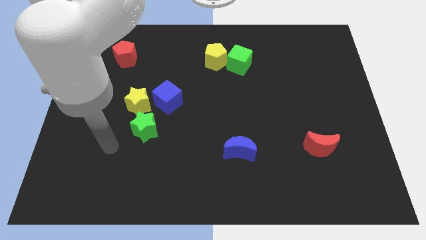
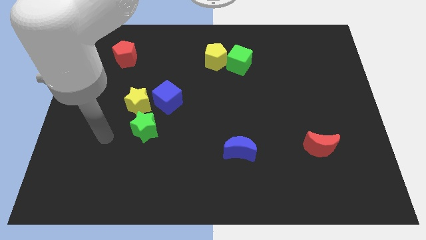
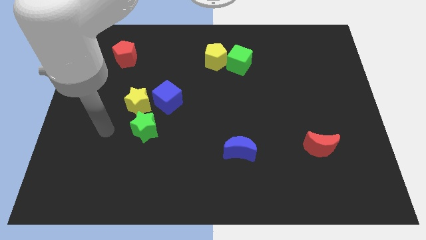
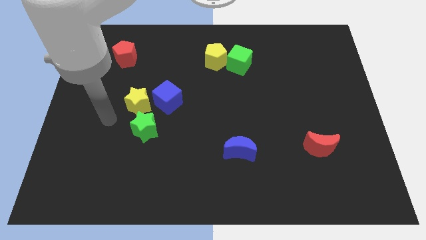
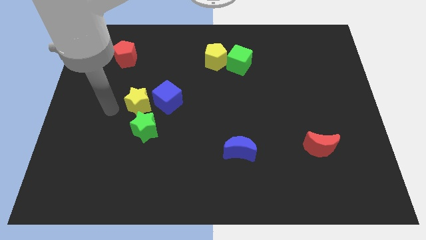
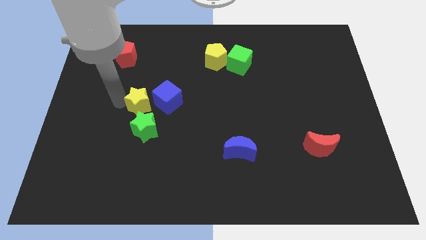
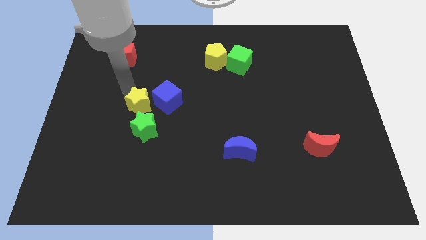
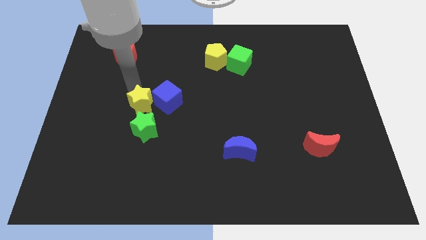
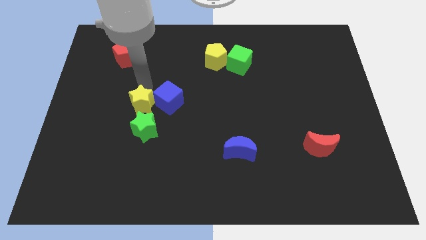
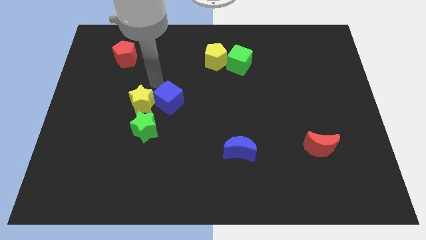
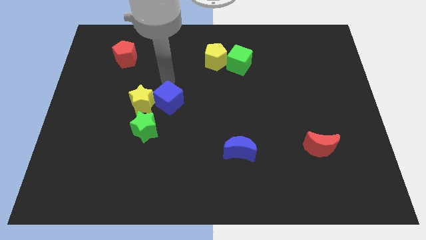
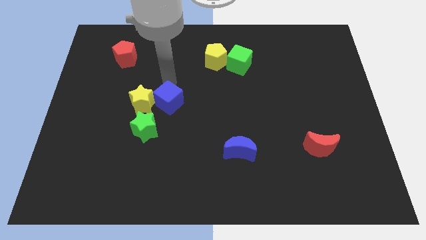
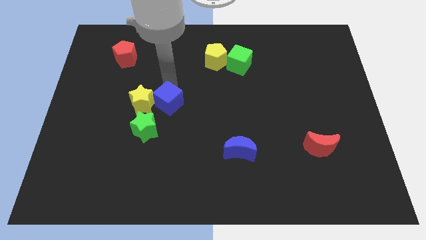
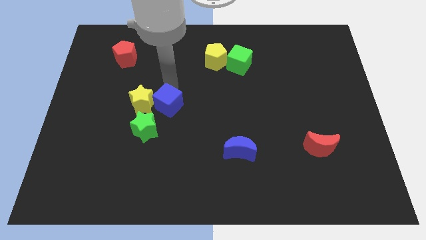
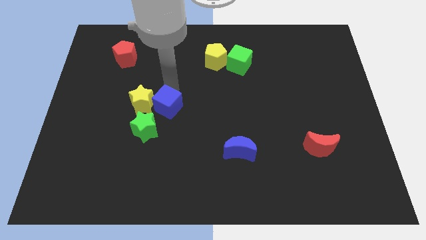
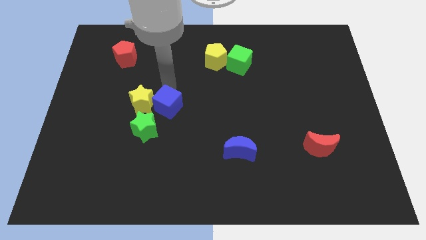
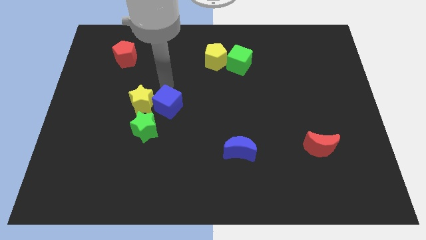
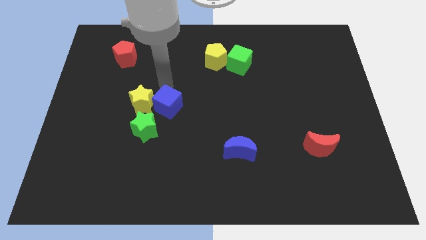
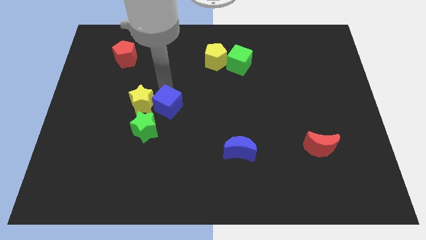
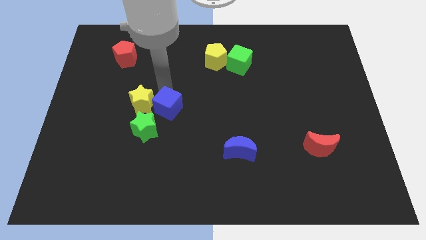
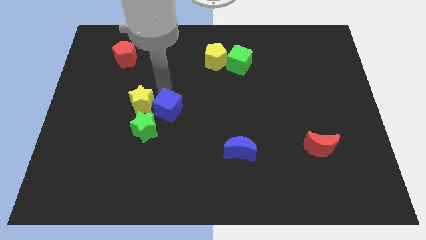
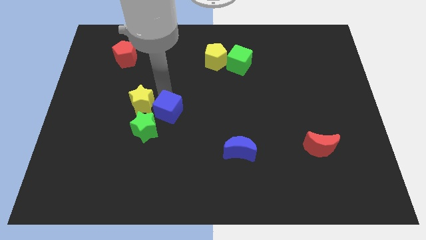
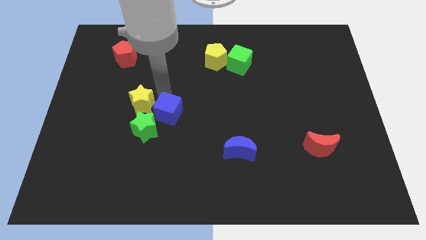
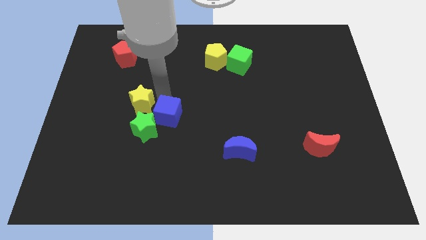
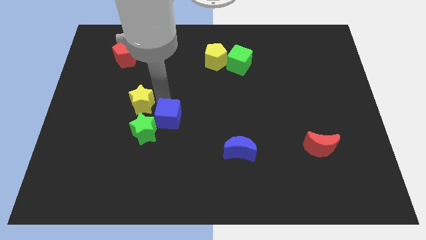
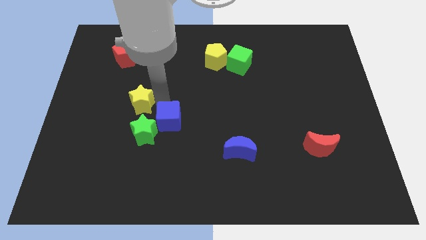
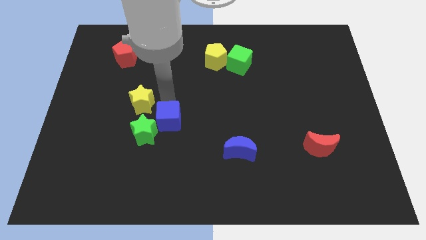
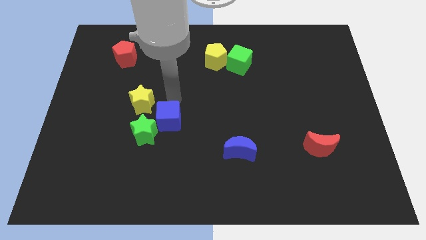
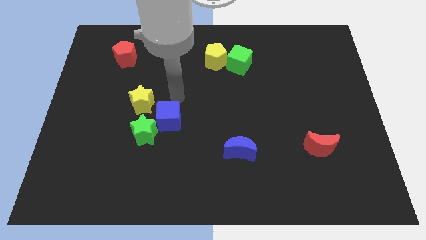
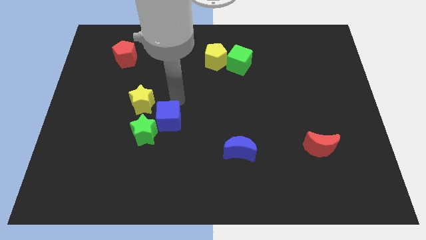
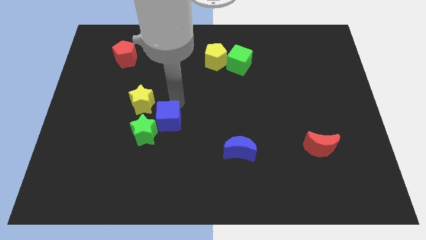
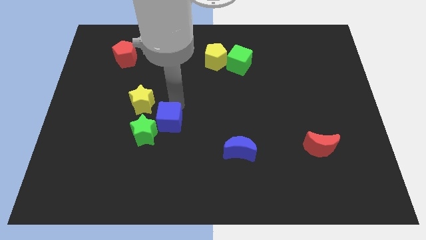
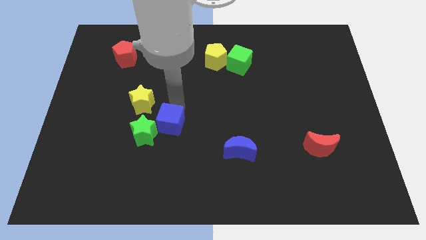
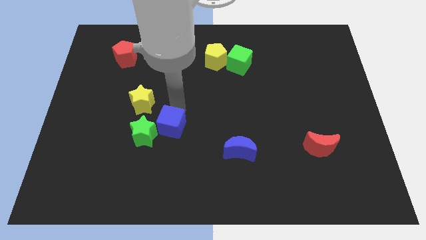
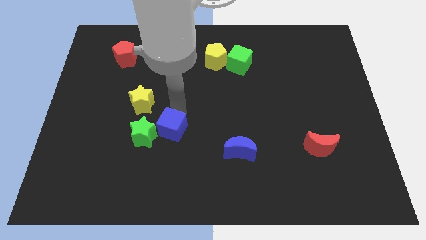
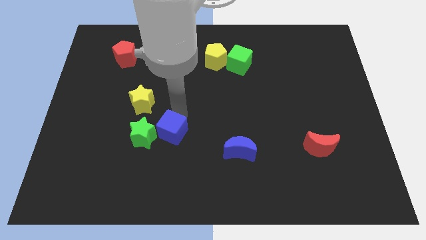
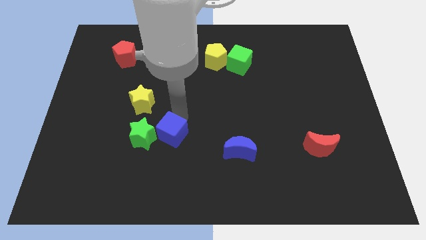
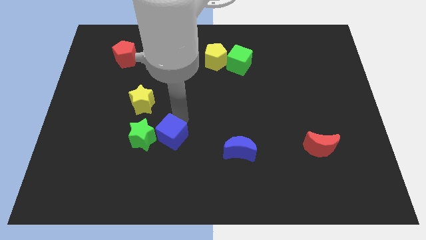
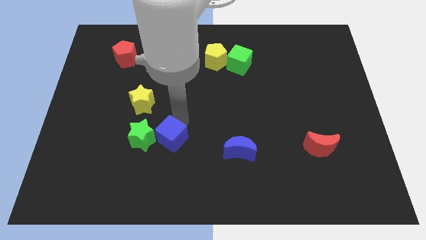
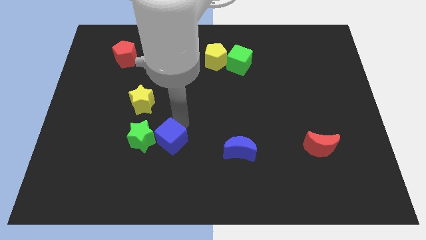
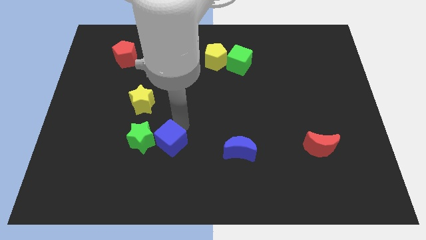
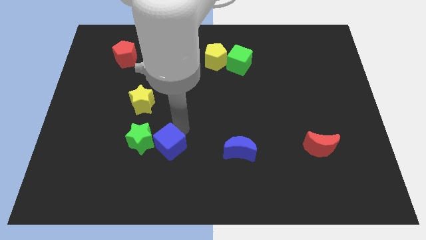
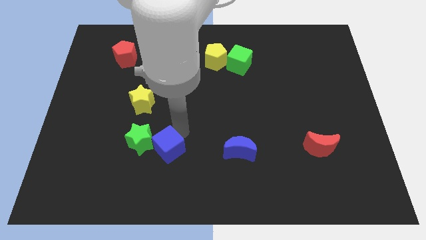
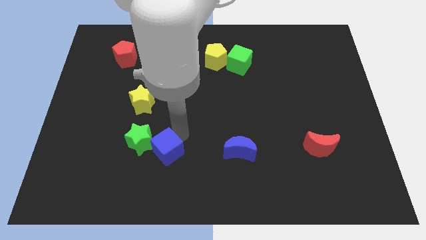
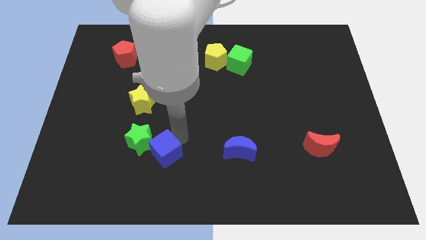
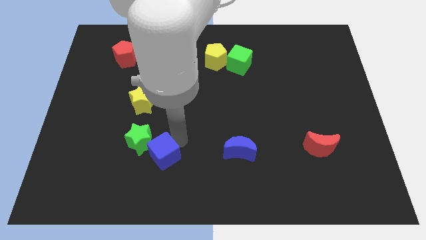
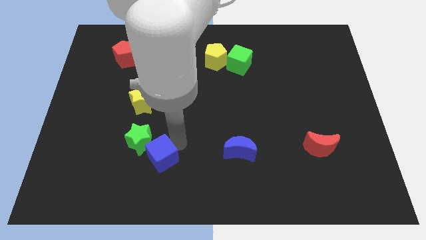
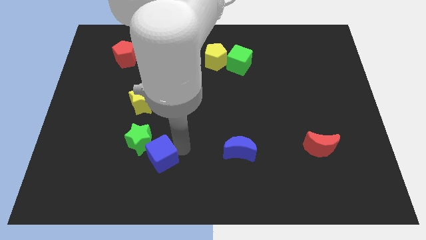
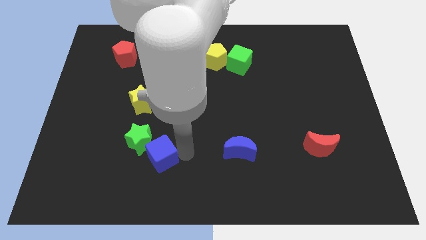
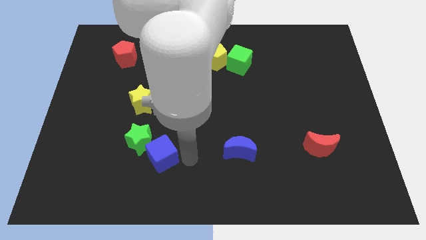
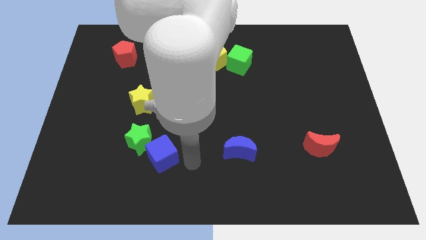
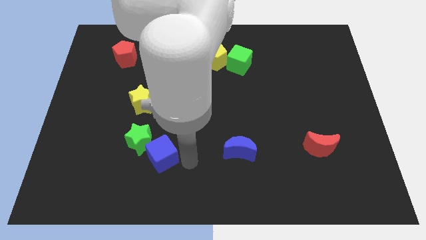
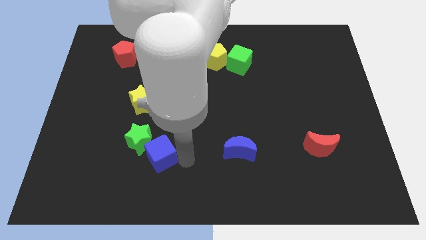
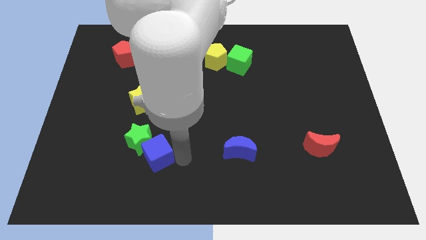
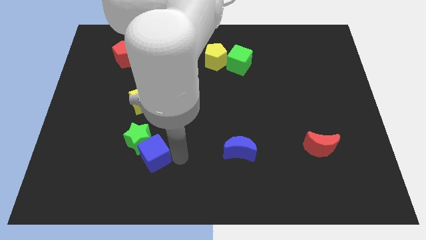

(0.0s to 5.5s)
slightly slide the blue cube downwards and left

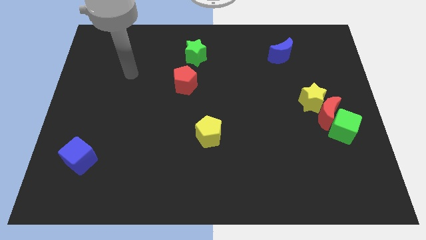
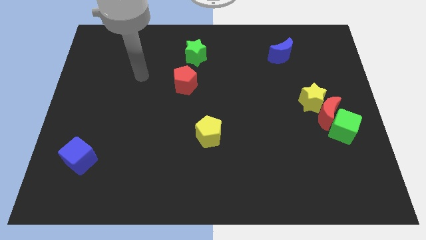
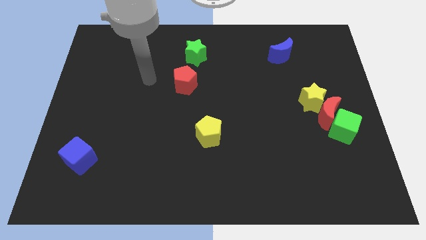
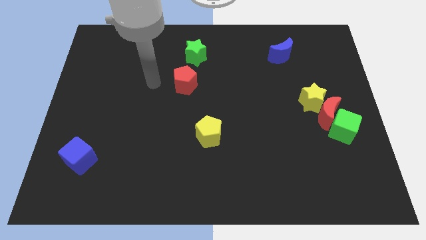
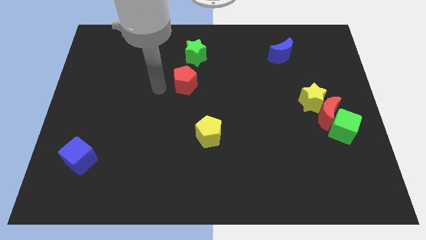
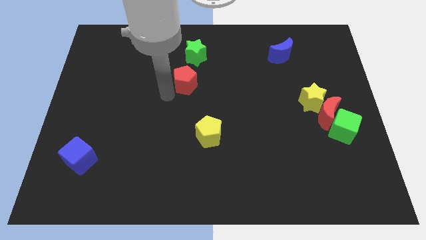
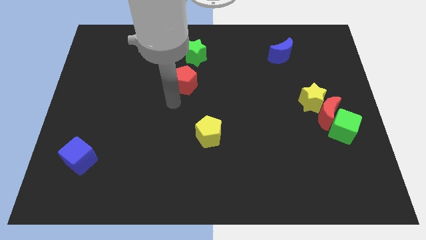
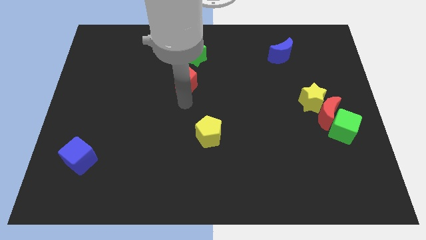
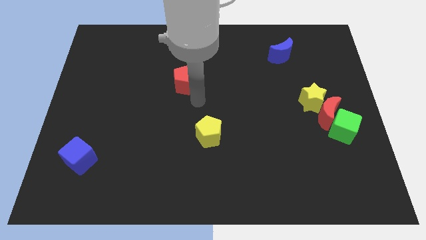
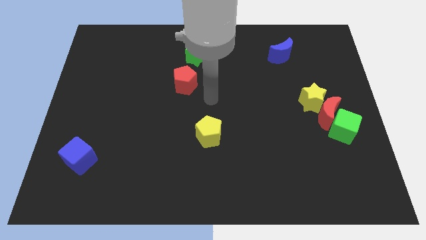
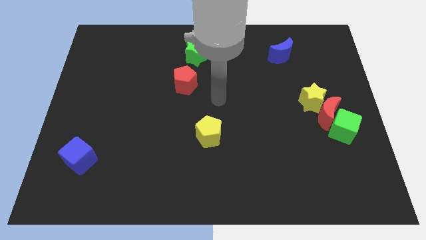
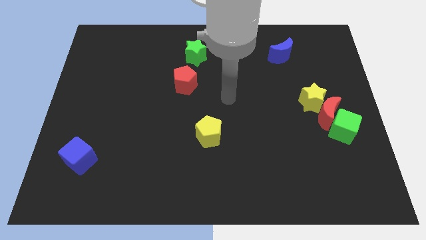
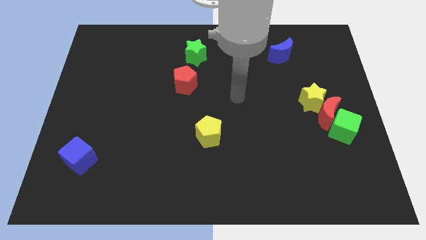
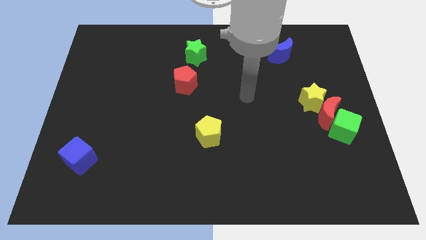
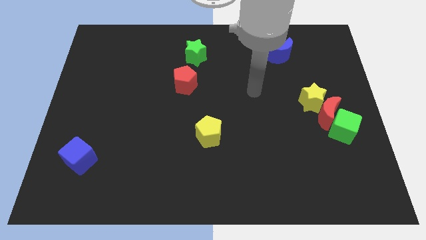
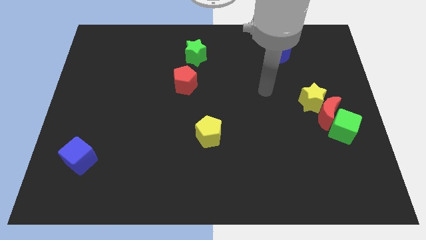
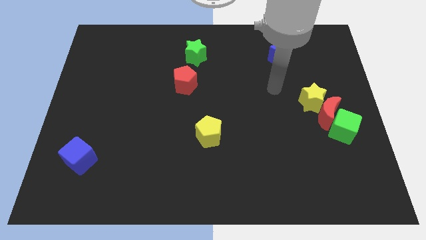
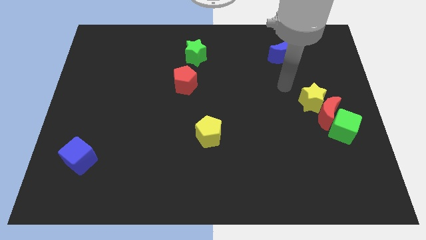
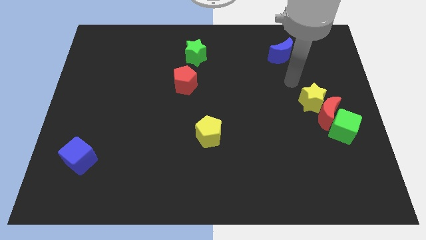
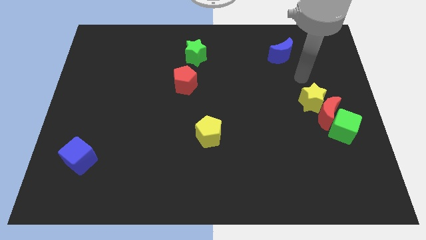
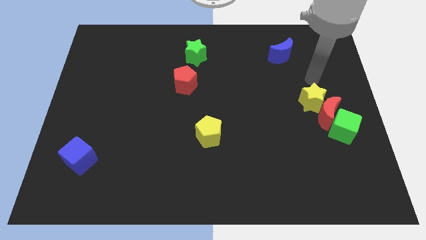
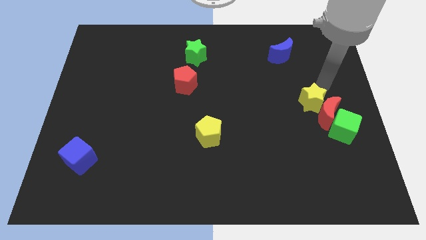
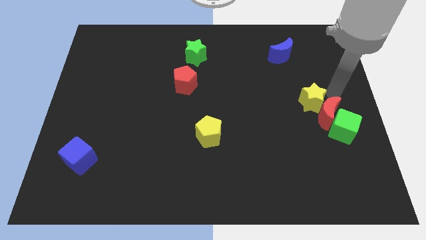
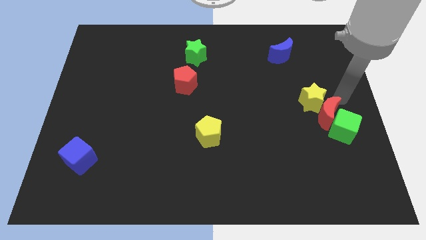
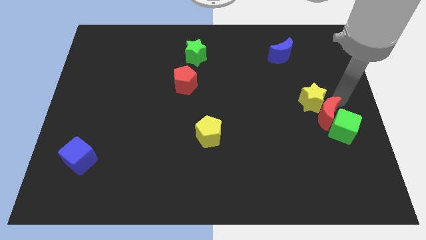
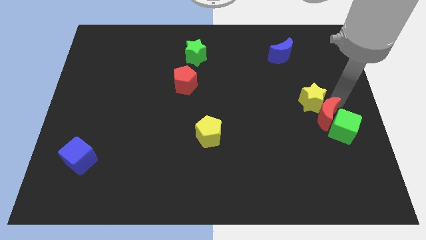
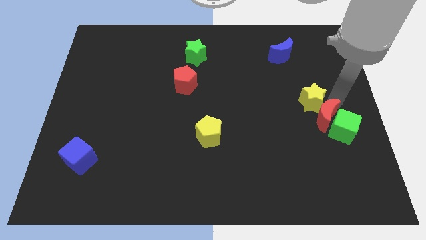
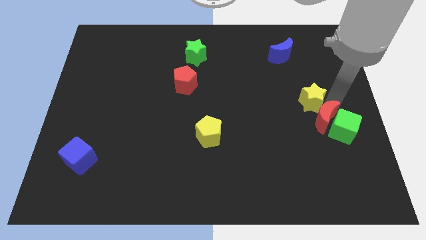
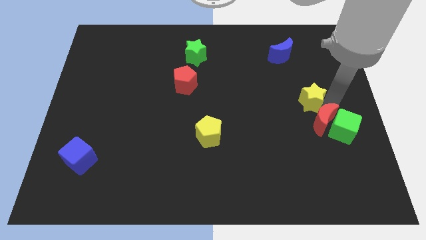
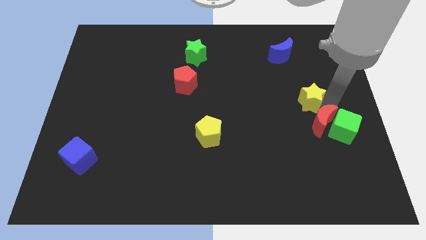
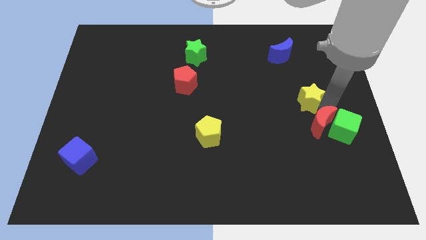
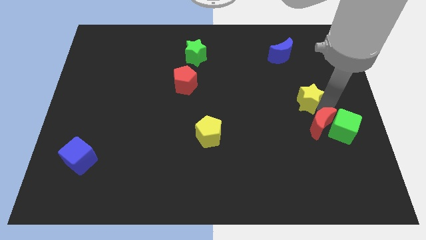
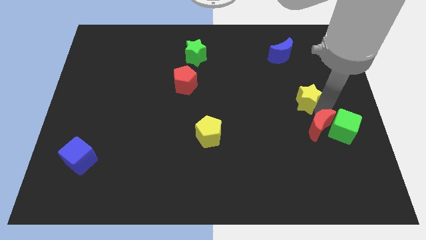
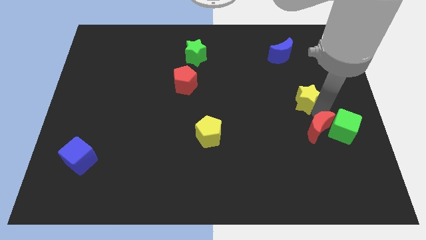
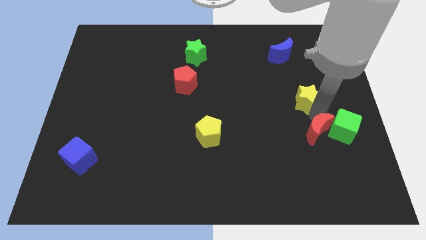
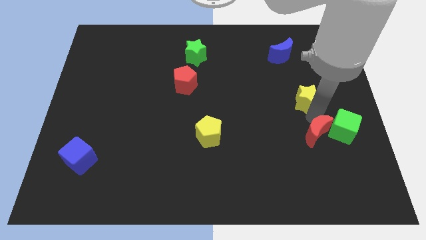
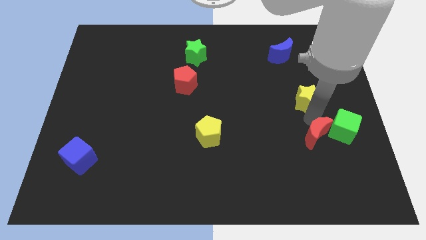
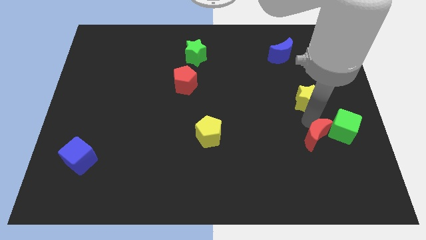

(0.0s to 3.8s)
slightly move the red moon downwards and to the left
